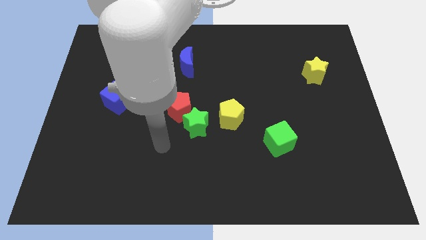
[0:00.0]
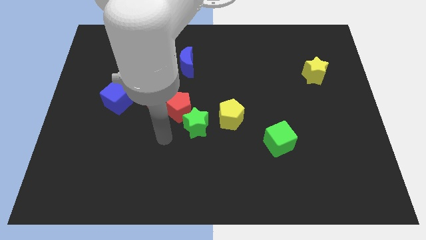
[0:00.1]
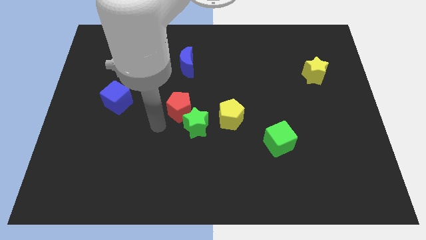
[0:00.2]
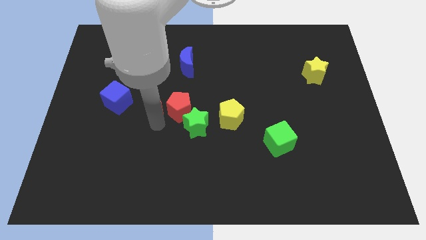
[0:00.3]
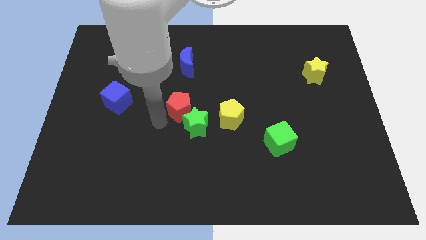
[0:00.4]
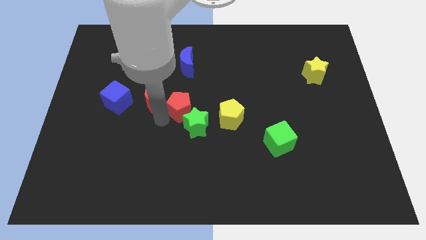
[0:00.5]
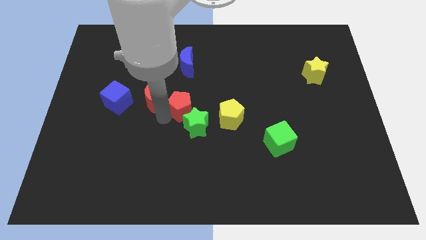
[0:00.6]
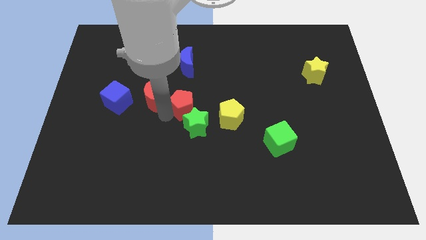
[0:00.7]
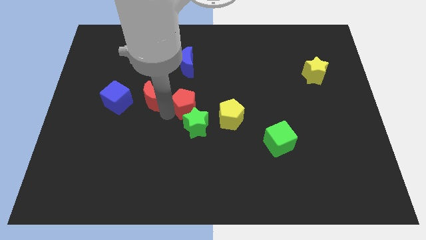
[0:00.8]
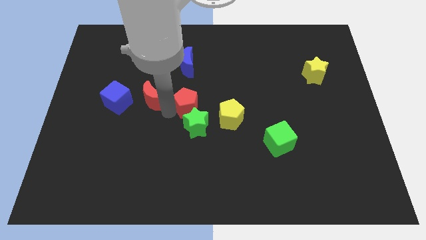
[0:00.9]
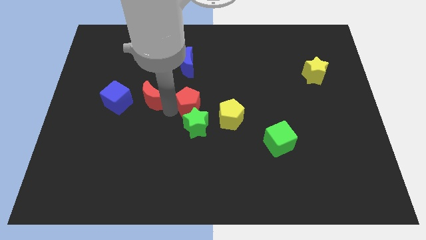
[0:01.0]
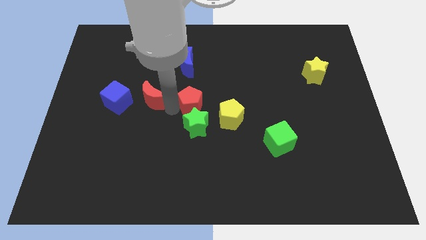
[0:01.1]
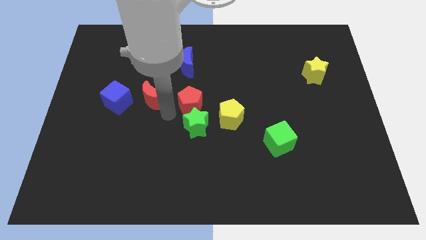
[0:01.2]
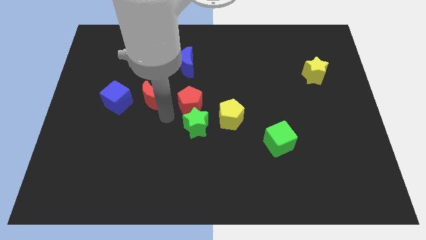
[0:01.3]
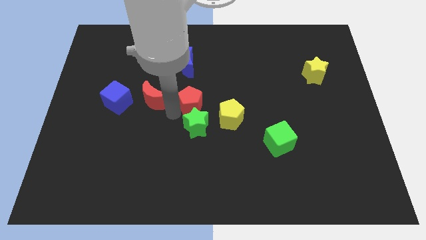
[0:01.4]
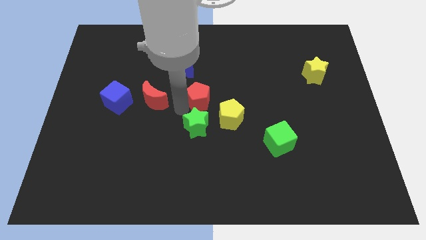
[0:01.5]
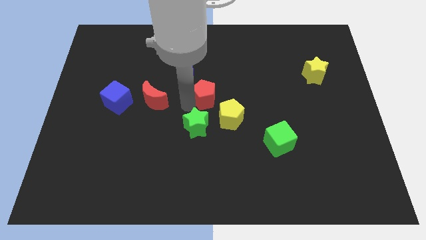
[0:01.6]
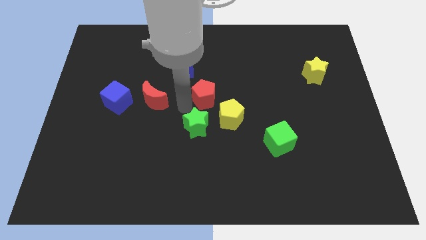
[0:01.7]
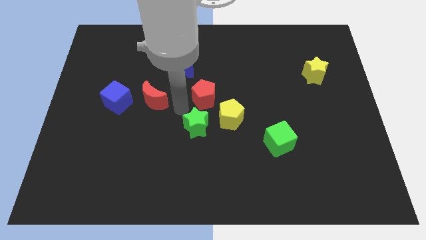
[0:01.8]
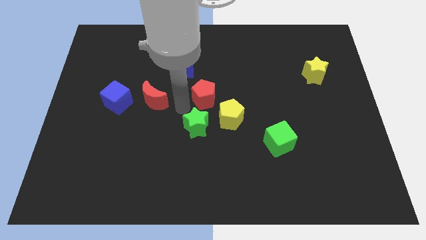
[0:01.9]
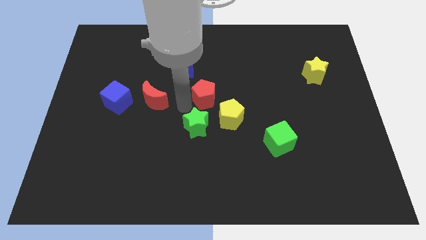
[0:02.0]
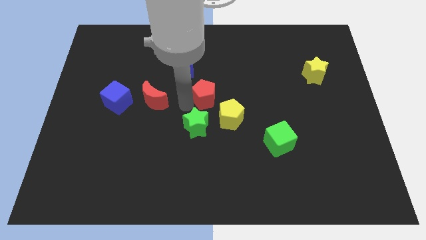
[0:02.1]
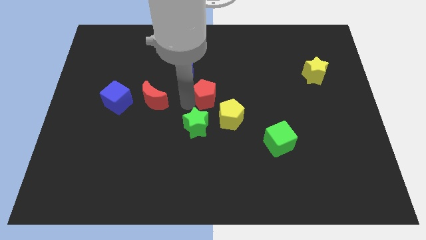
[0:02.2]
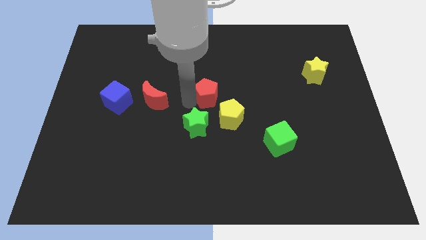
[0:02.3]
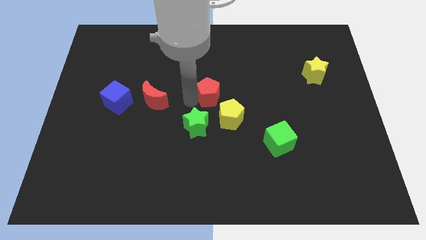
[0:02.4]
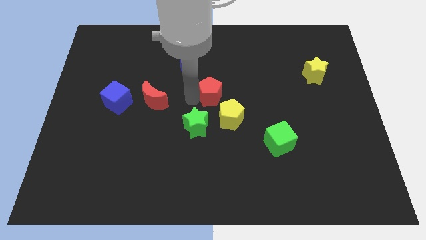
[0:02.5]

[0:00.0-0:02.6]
pull the red pentagon apart from the green star and red moon

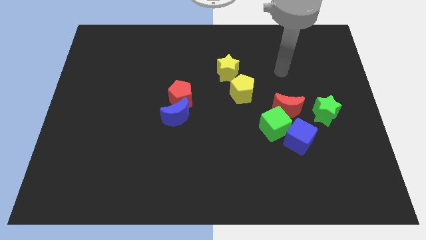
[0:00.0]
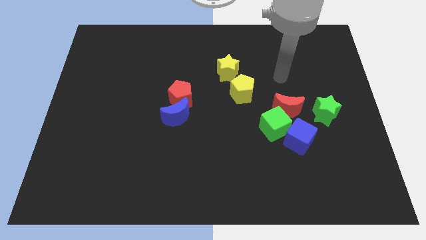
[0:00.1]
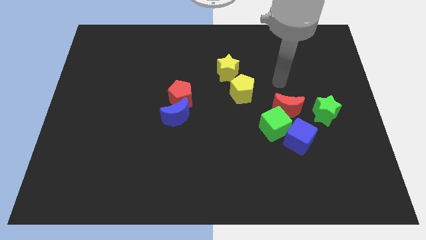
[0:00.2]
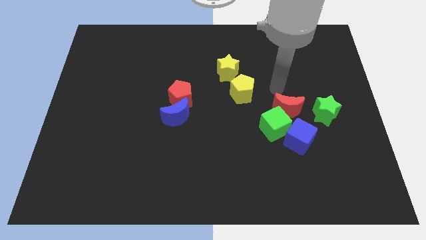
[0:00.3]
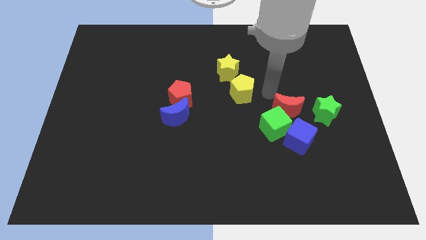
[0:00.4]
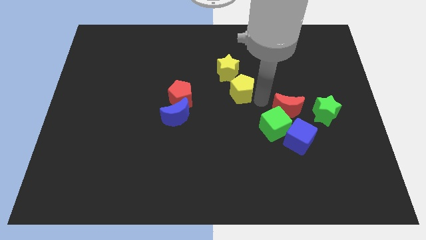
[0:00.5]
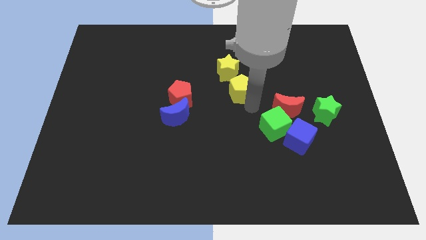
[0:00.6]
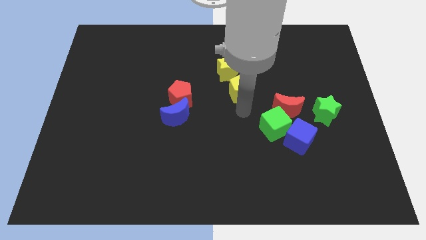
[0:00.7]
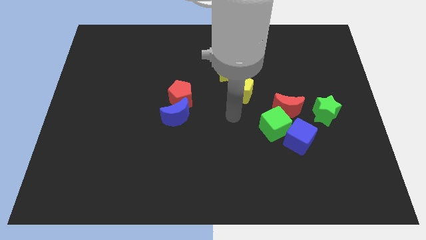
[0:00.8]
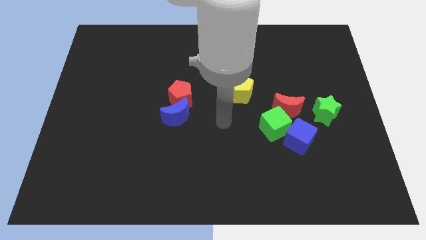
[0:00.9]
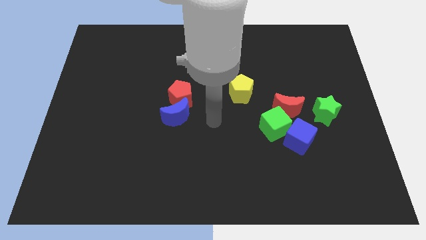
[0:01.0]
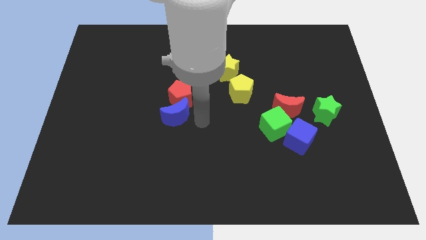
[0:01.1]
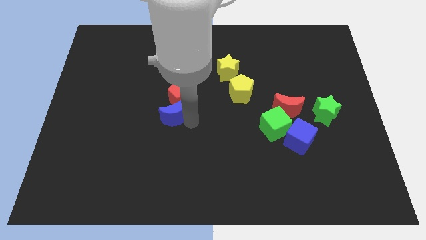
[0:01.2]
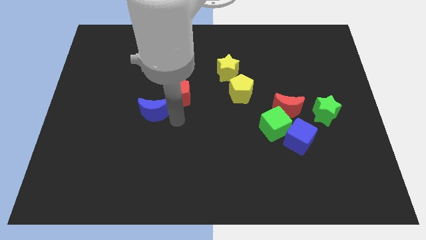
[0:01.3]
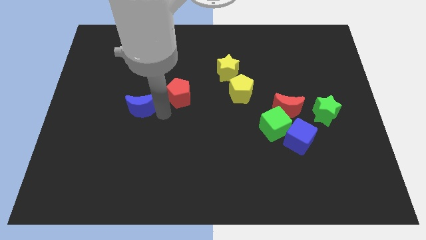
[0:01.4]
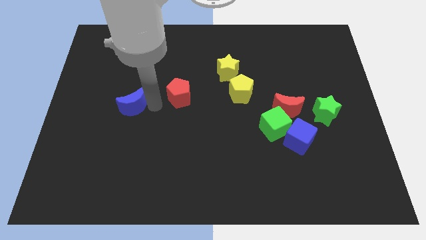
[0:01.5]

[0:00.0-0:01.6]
pull the red pentagon apart from the blue moon

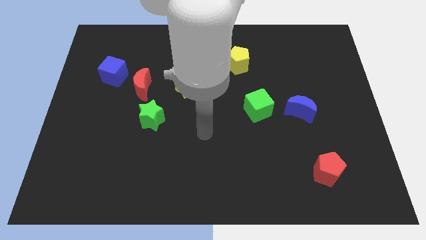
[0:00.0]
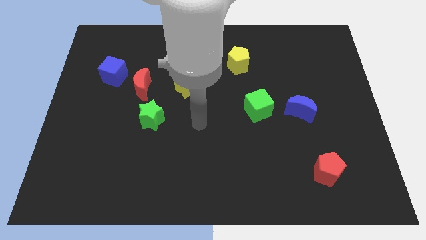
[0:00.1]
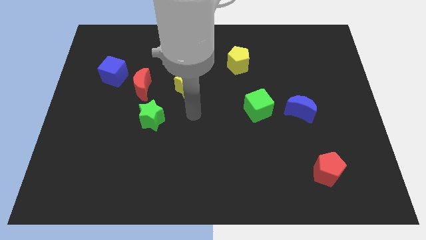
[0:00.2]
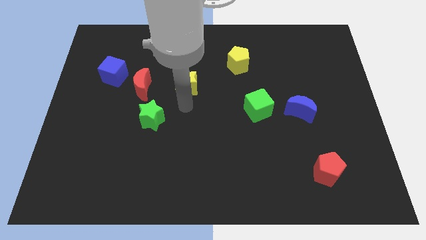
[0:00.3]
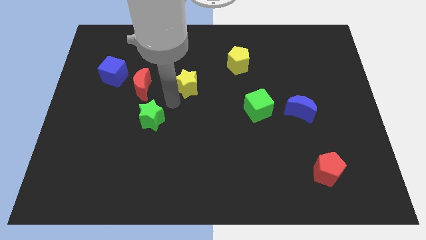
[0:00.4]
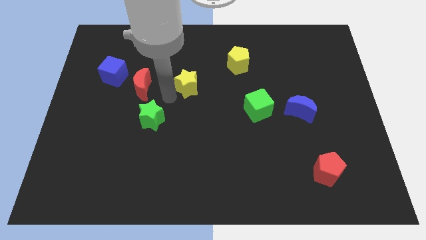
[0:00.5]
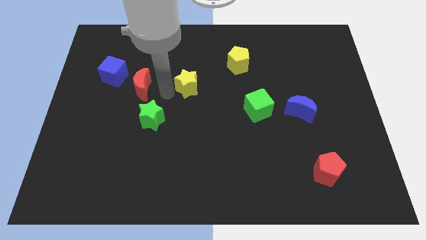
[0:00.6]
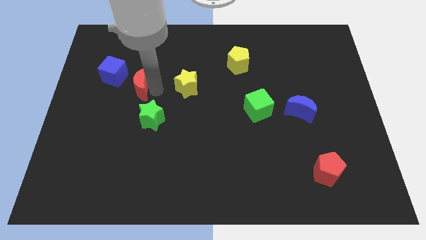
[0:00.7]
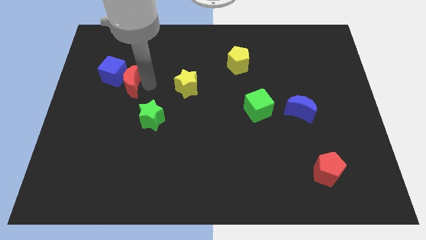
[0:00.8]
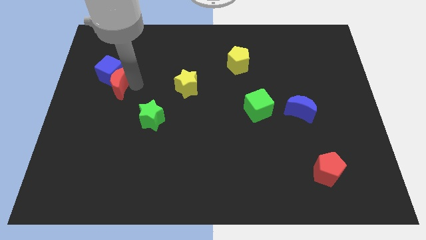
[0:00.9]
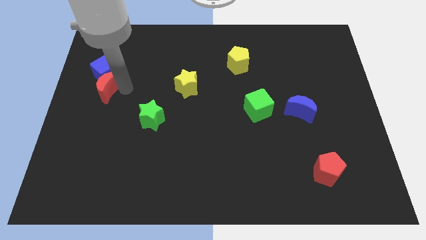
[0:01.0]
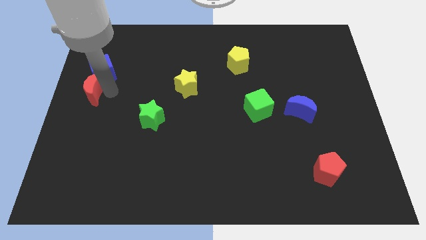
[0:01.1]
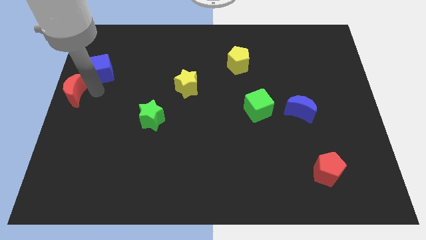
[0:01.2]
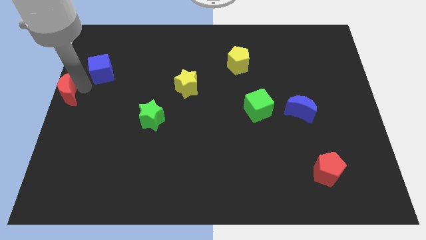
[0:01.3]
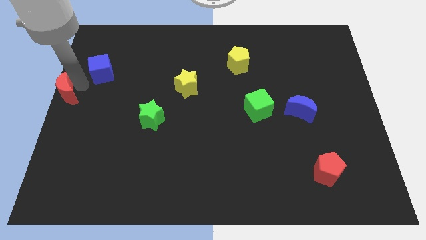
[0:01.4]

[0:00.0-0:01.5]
separate the blue cube from the red moon

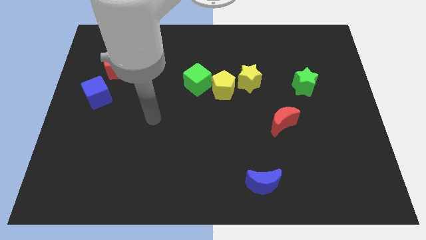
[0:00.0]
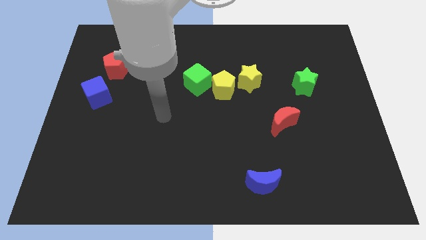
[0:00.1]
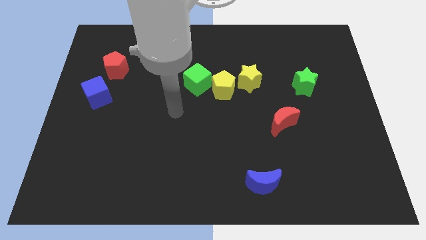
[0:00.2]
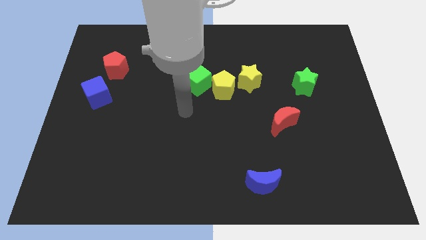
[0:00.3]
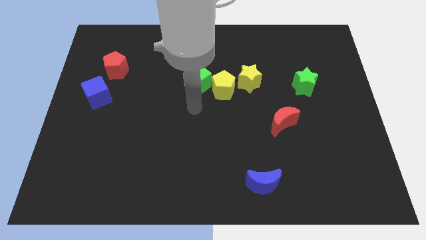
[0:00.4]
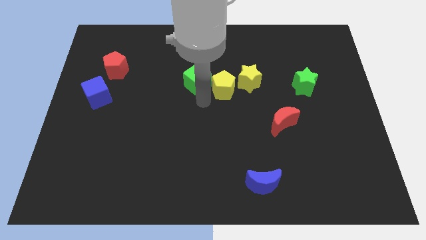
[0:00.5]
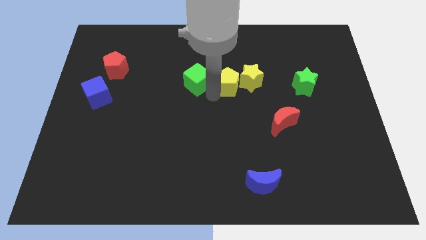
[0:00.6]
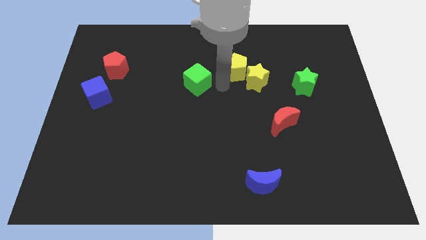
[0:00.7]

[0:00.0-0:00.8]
pull the green cube apart from the yellow pentagon

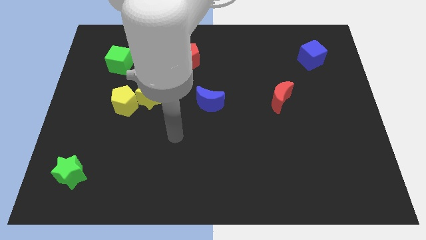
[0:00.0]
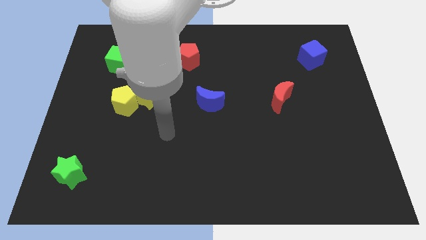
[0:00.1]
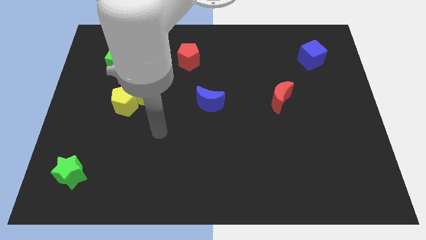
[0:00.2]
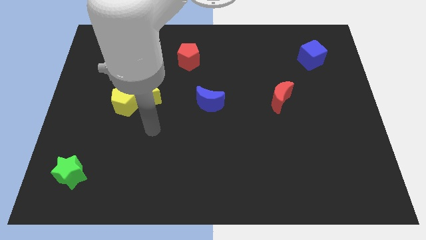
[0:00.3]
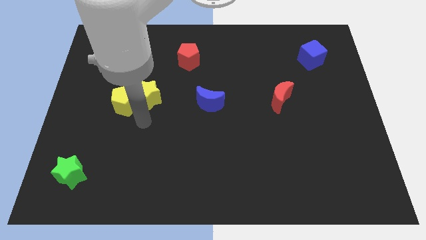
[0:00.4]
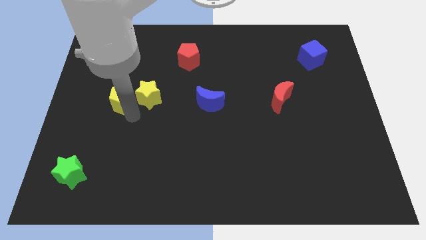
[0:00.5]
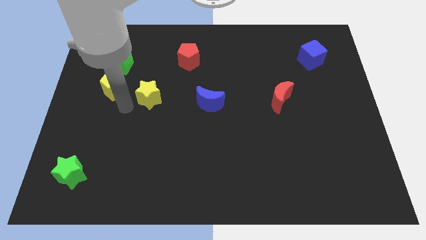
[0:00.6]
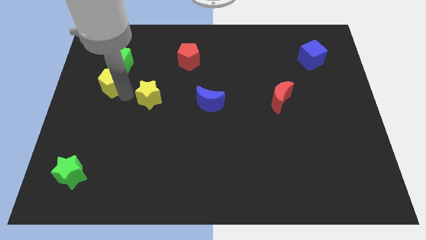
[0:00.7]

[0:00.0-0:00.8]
separate the yellow star from the yellow pentagon

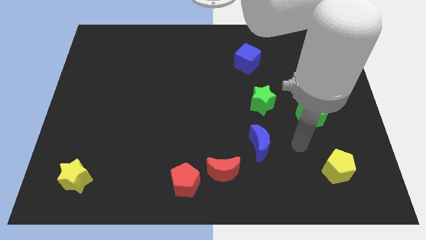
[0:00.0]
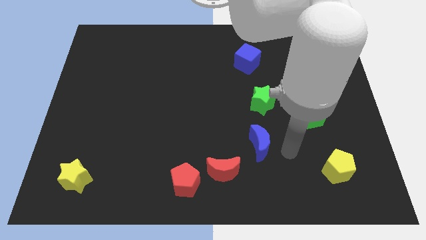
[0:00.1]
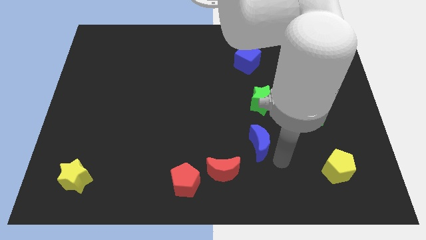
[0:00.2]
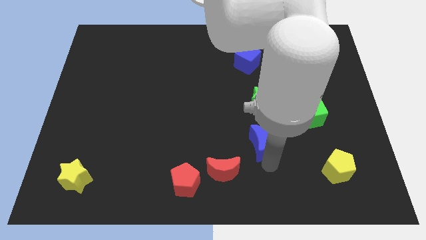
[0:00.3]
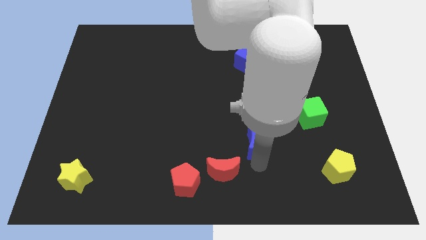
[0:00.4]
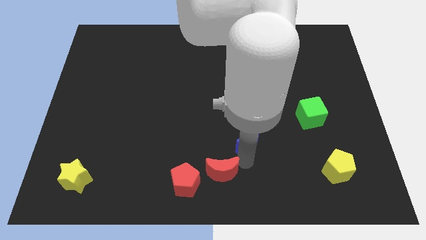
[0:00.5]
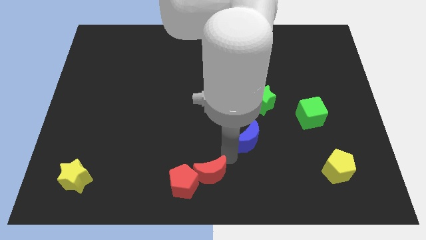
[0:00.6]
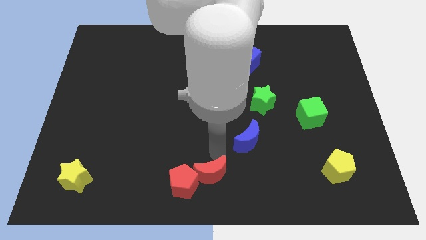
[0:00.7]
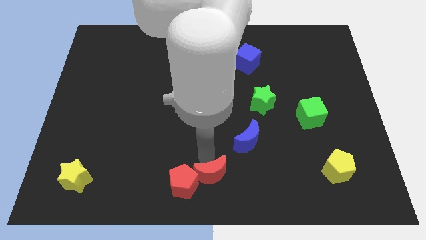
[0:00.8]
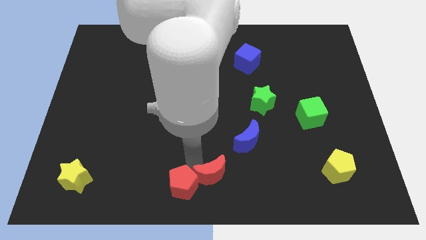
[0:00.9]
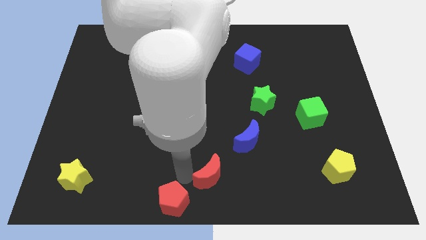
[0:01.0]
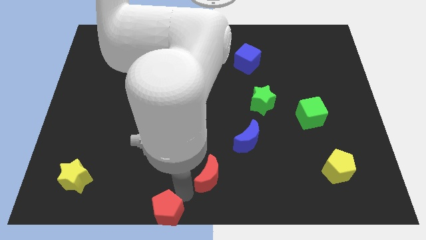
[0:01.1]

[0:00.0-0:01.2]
separate the red moon from the red pentagon

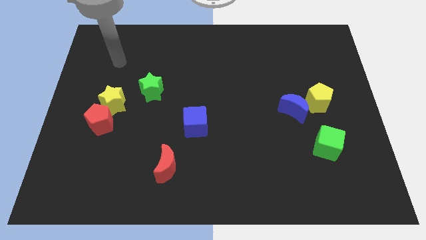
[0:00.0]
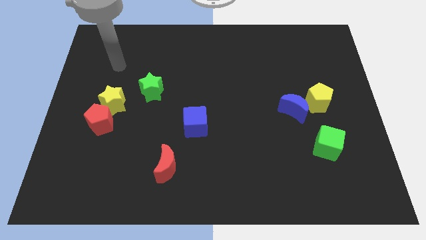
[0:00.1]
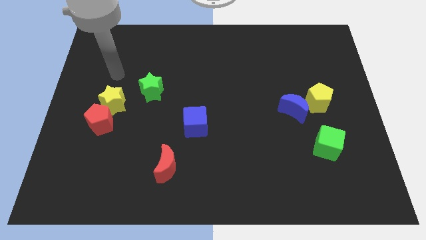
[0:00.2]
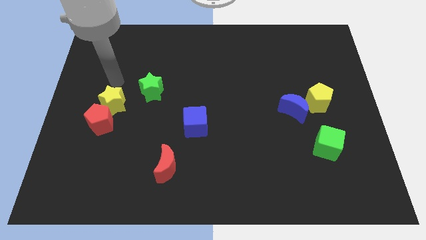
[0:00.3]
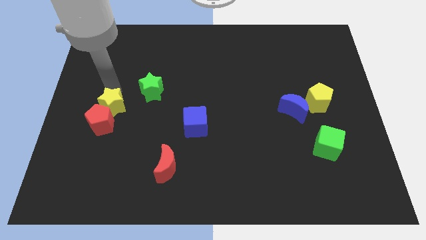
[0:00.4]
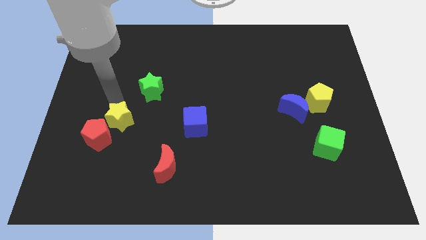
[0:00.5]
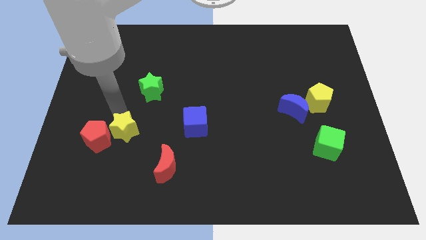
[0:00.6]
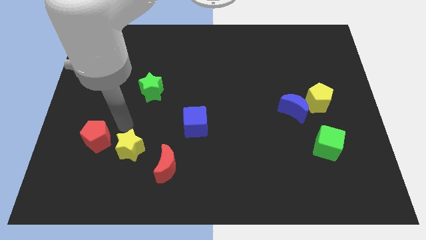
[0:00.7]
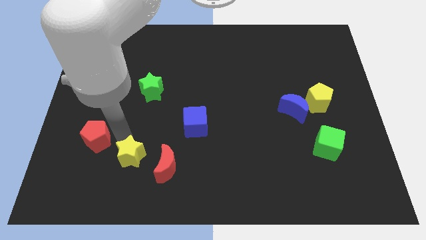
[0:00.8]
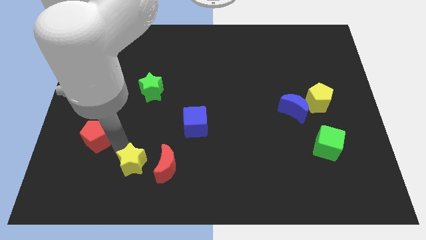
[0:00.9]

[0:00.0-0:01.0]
pull the red pentagon apart from the yellow star

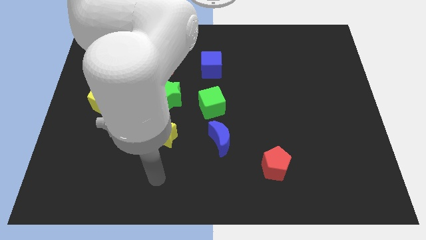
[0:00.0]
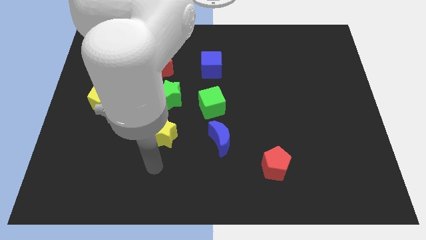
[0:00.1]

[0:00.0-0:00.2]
separate the blue moon from the green cube
